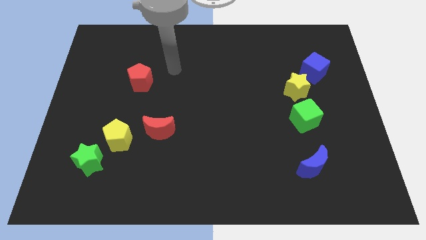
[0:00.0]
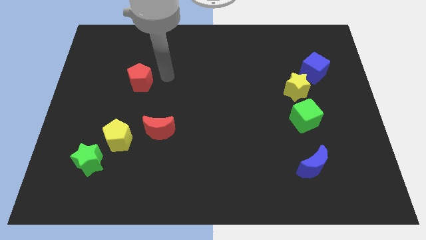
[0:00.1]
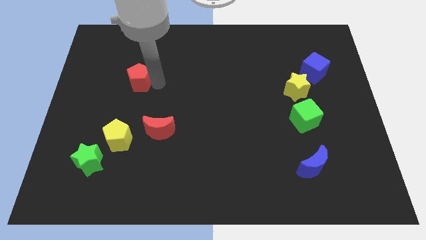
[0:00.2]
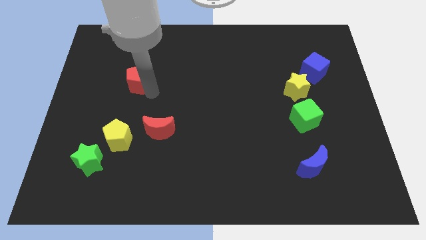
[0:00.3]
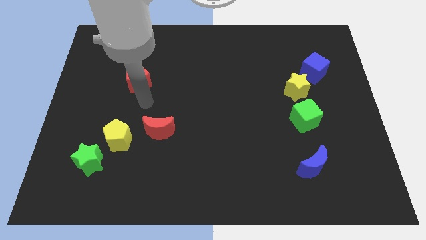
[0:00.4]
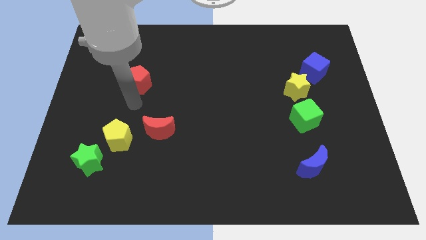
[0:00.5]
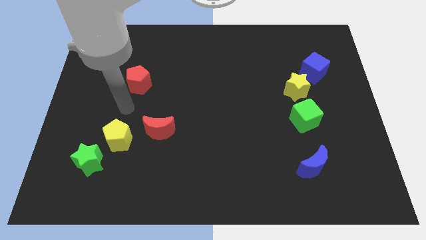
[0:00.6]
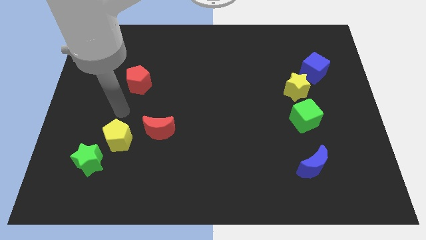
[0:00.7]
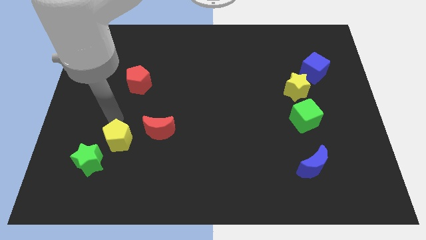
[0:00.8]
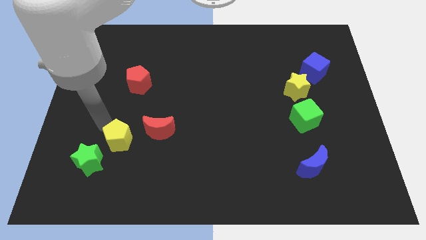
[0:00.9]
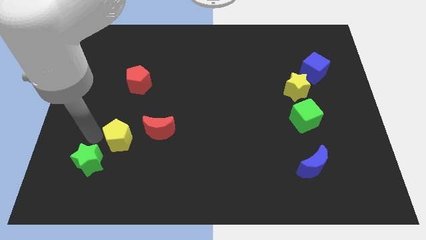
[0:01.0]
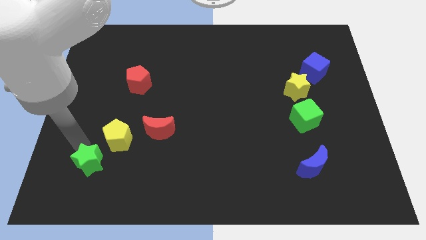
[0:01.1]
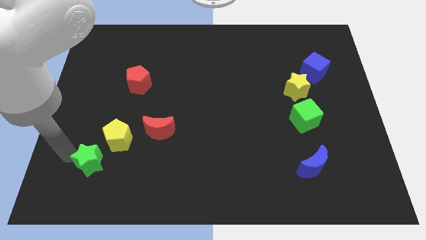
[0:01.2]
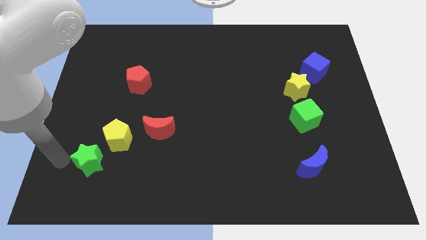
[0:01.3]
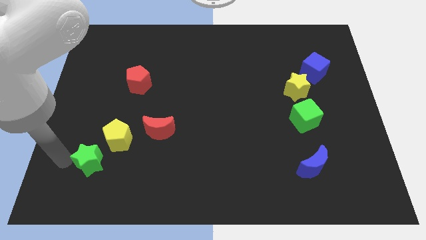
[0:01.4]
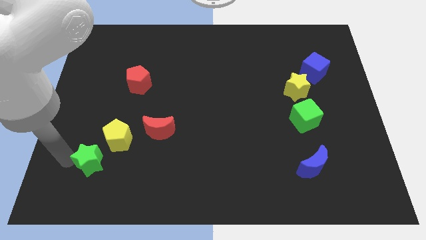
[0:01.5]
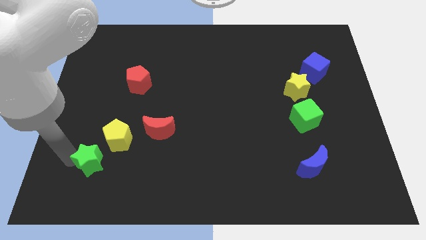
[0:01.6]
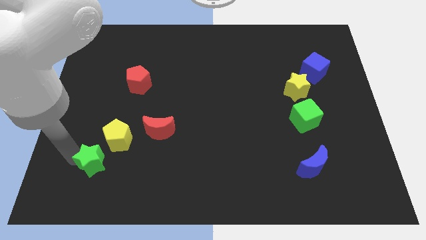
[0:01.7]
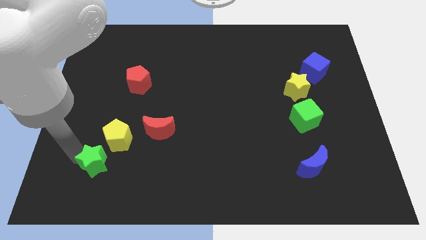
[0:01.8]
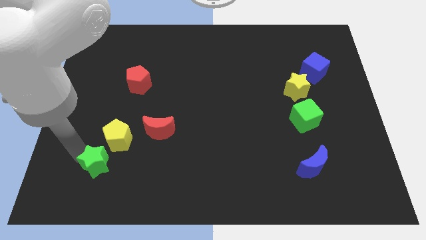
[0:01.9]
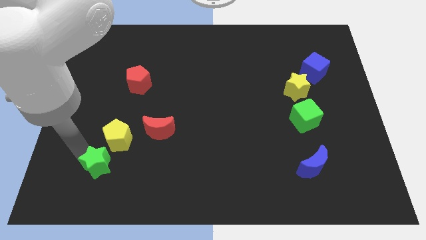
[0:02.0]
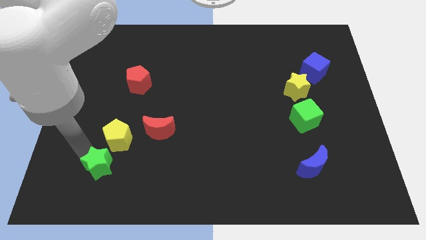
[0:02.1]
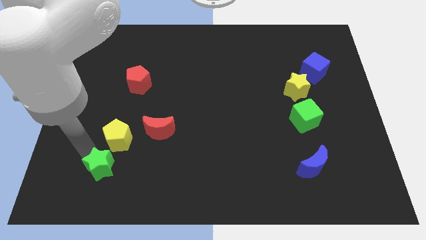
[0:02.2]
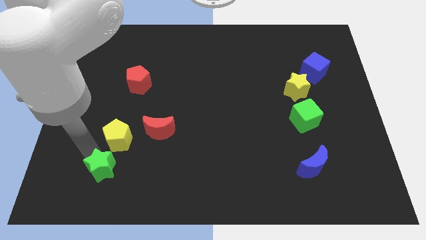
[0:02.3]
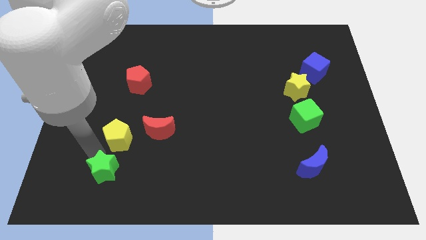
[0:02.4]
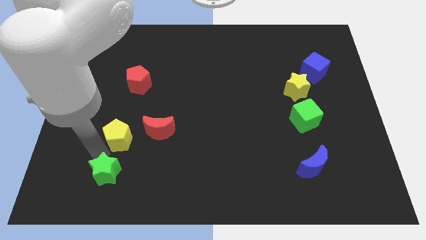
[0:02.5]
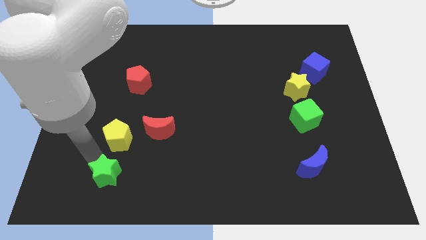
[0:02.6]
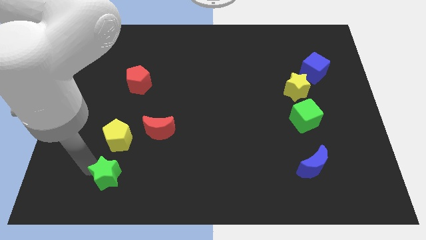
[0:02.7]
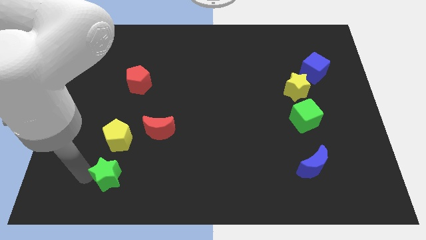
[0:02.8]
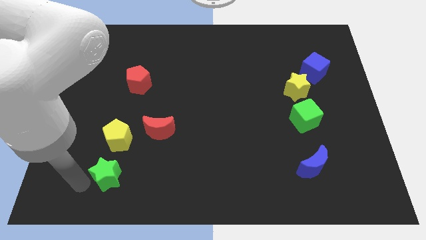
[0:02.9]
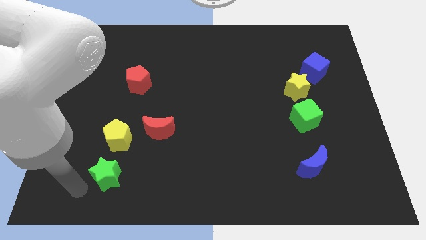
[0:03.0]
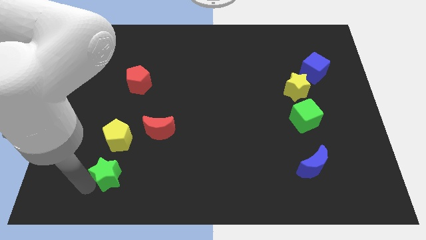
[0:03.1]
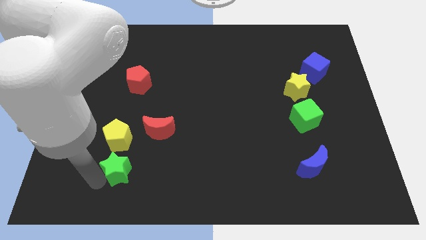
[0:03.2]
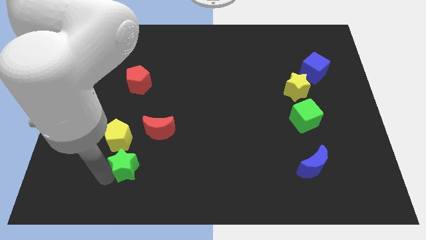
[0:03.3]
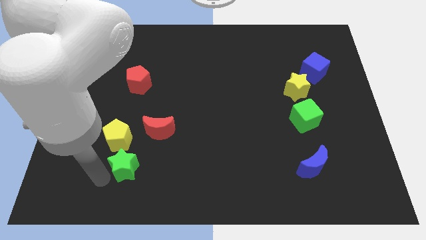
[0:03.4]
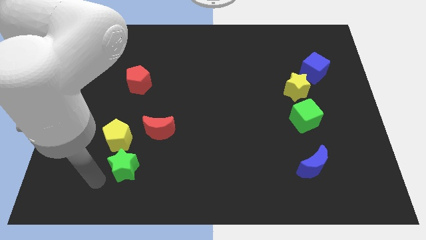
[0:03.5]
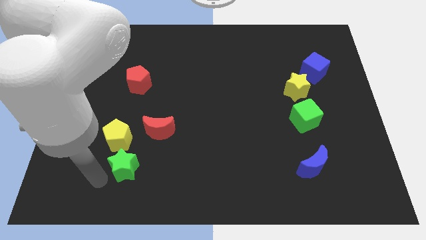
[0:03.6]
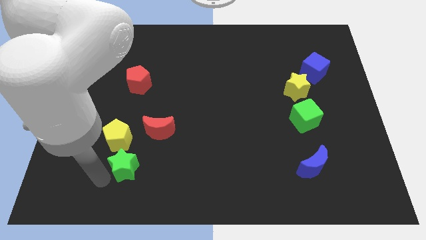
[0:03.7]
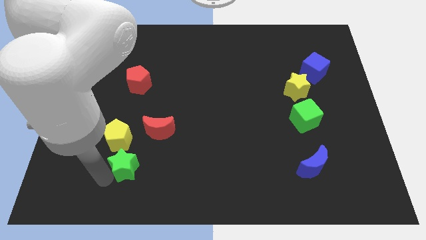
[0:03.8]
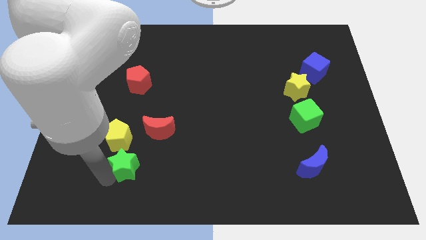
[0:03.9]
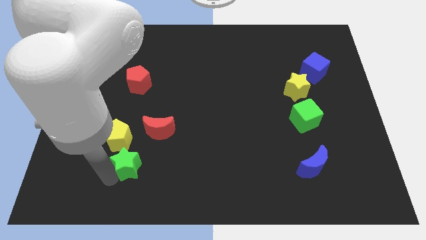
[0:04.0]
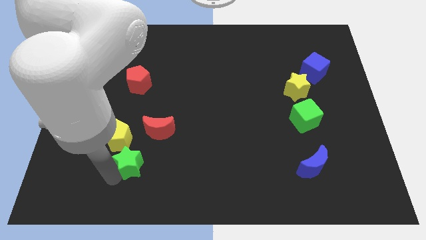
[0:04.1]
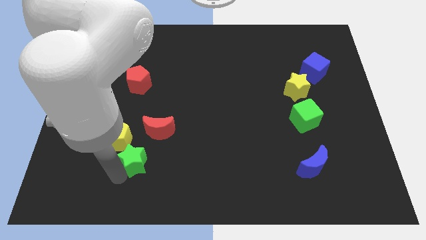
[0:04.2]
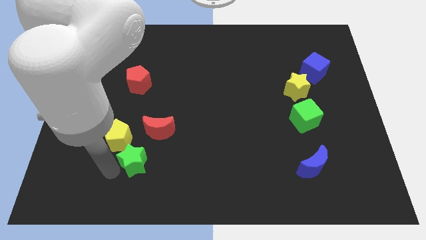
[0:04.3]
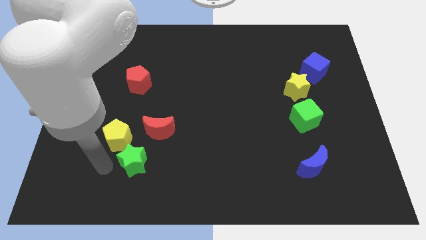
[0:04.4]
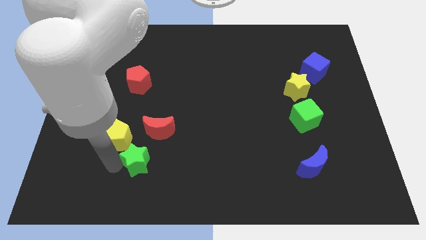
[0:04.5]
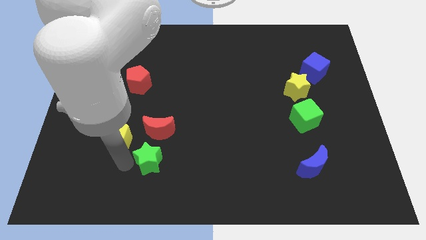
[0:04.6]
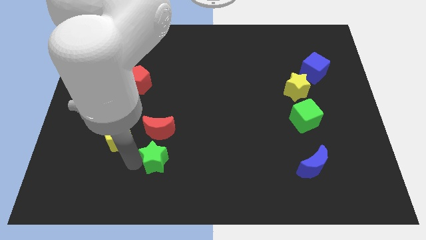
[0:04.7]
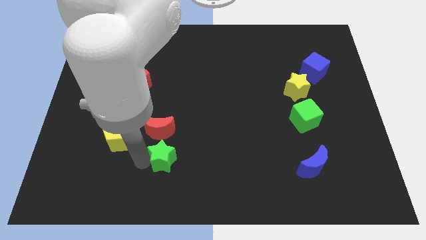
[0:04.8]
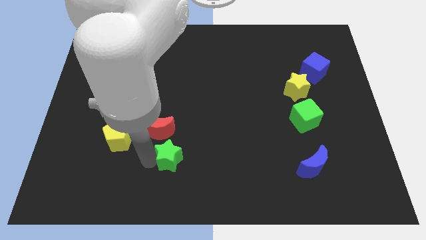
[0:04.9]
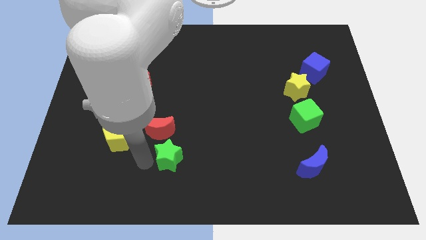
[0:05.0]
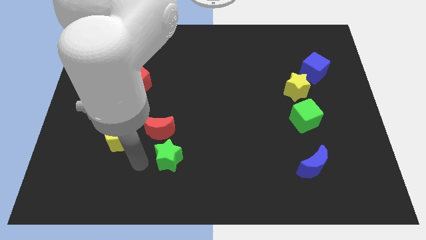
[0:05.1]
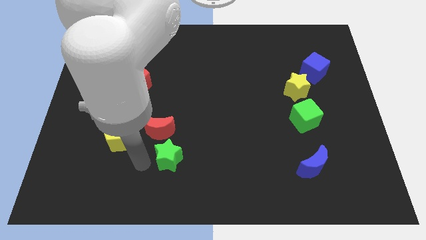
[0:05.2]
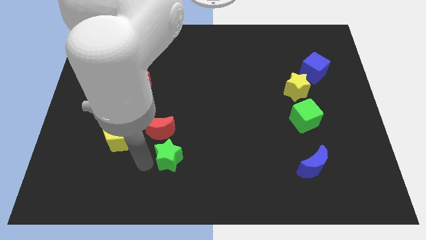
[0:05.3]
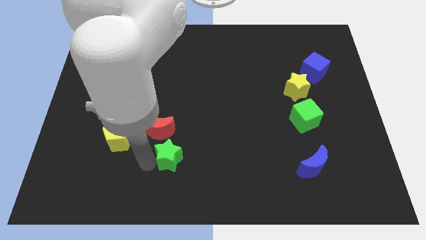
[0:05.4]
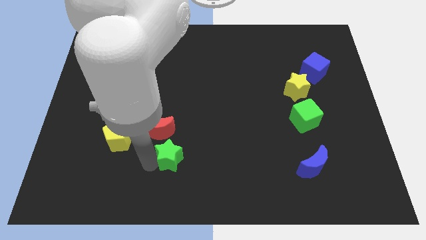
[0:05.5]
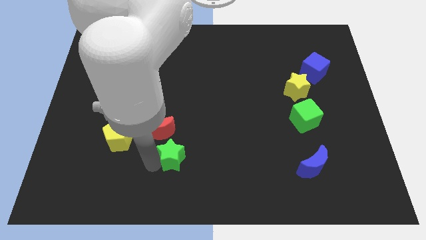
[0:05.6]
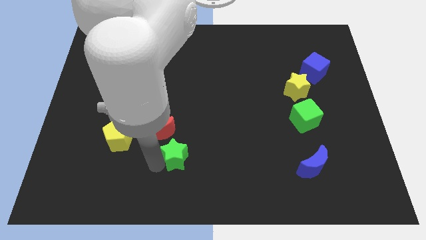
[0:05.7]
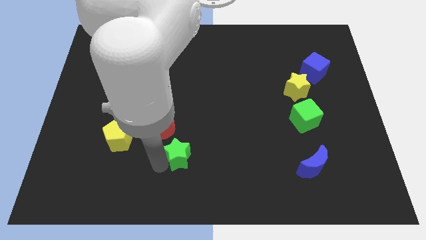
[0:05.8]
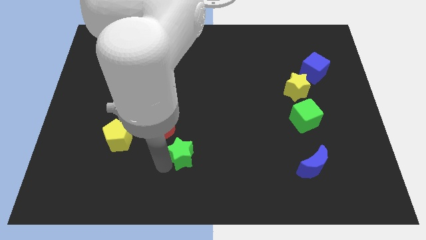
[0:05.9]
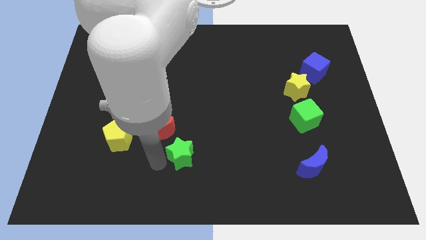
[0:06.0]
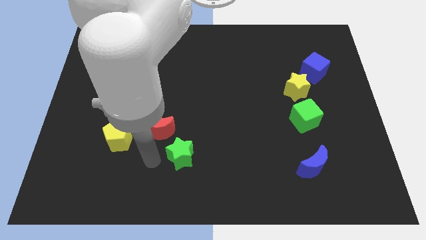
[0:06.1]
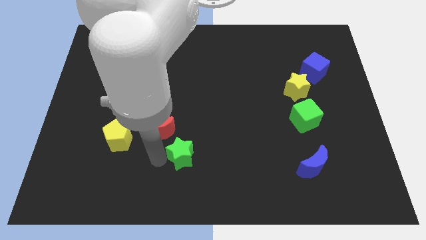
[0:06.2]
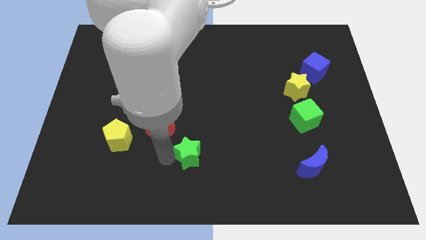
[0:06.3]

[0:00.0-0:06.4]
move the green star right

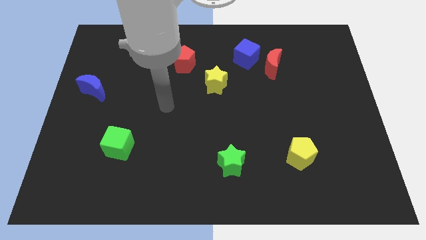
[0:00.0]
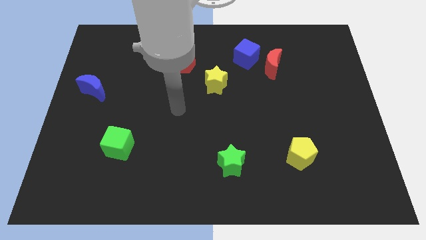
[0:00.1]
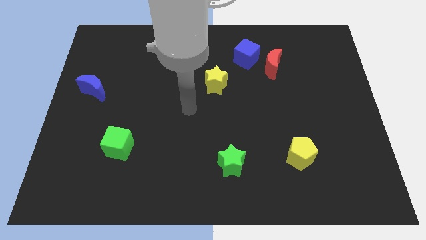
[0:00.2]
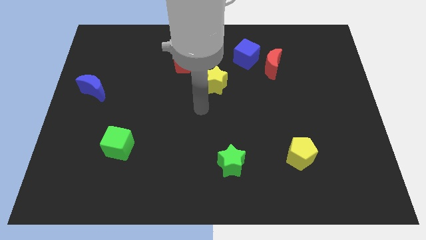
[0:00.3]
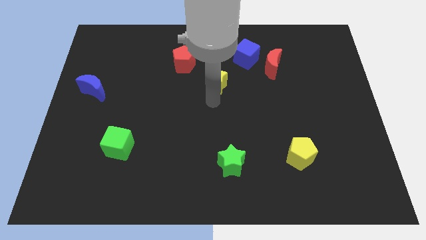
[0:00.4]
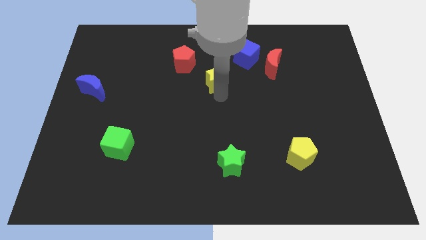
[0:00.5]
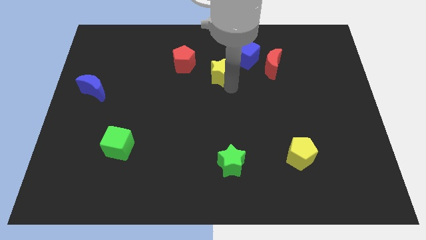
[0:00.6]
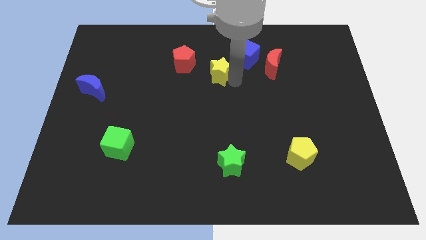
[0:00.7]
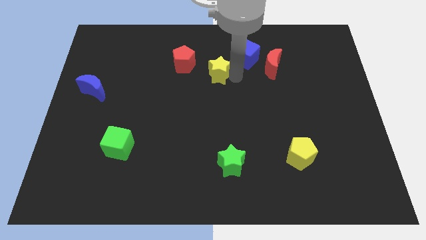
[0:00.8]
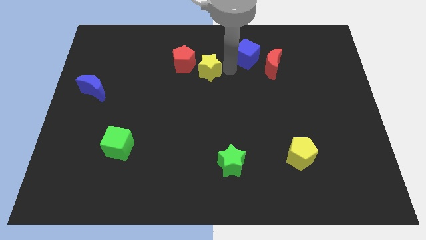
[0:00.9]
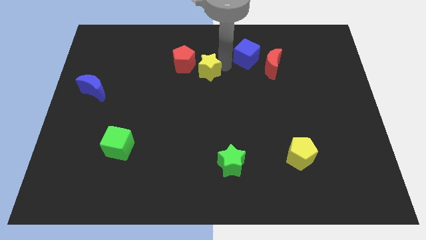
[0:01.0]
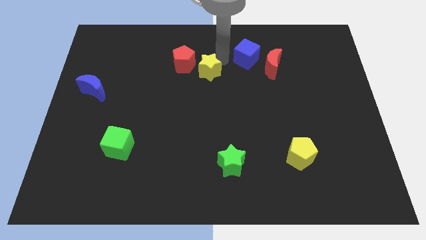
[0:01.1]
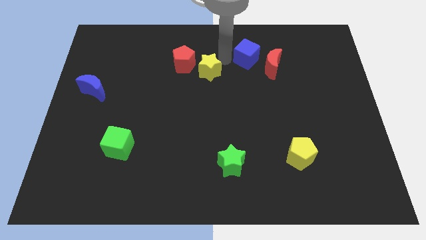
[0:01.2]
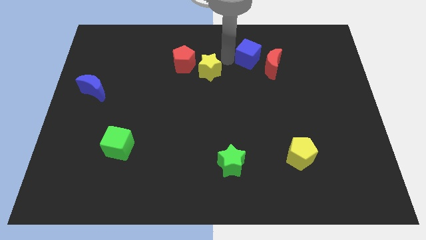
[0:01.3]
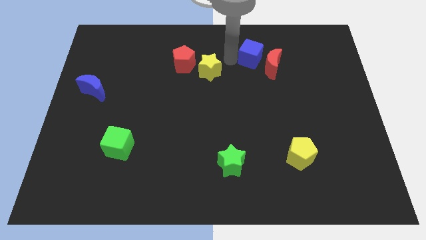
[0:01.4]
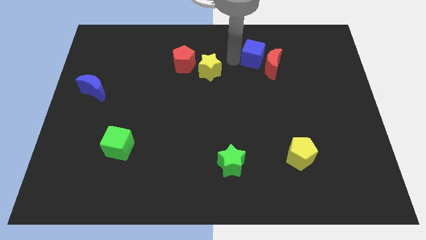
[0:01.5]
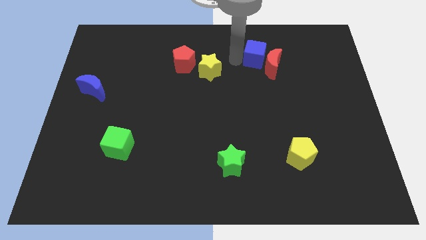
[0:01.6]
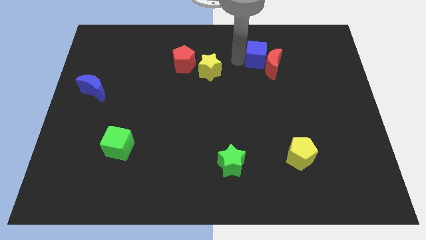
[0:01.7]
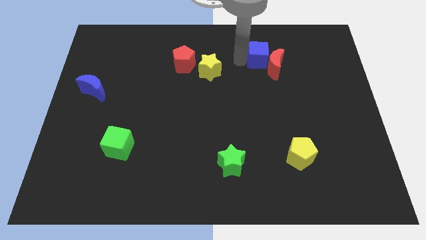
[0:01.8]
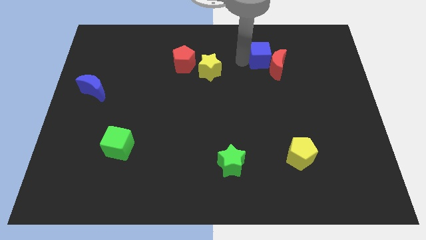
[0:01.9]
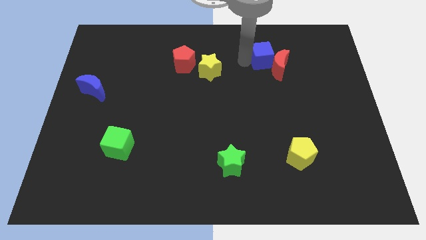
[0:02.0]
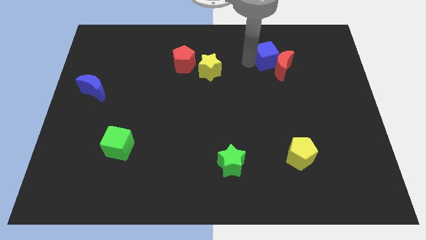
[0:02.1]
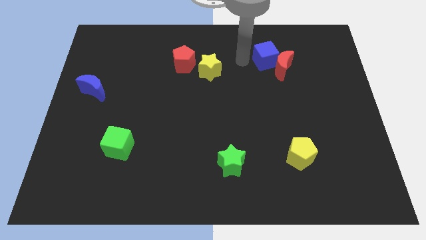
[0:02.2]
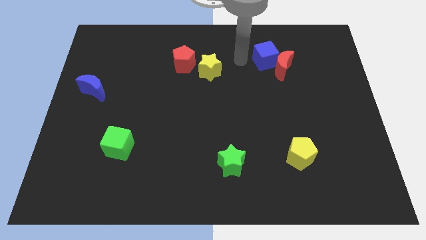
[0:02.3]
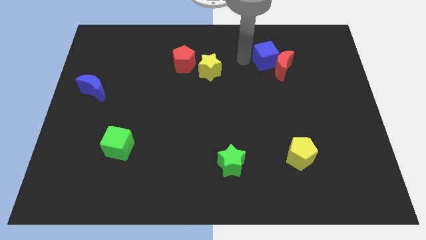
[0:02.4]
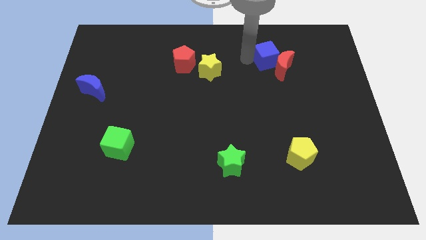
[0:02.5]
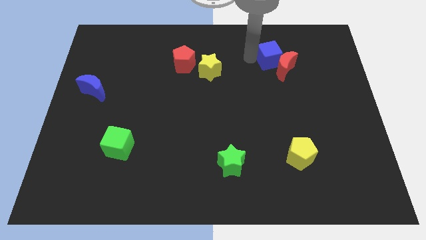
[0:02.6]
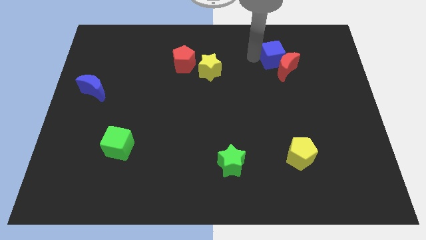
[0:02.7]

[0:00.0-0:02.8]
slightly slide the blue cube right
